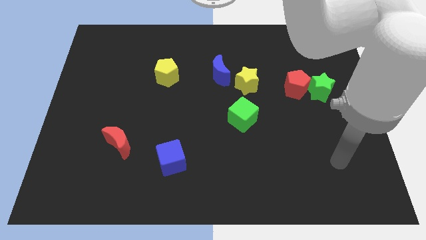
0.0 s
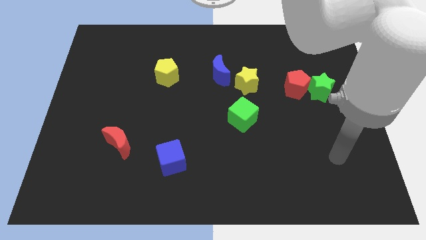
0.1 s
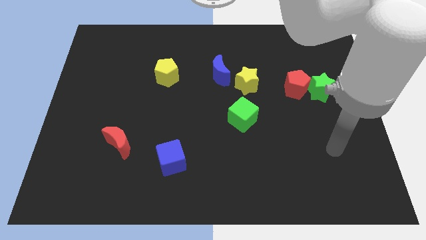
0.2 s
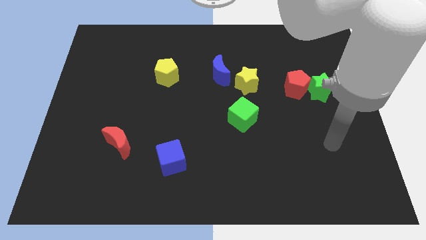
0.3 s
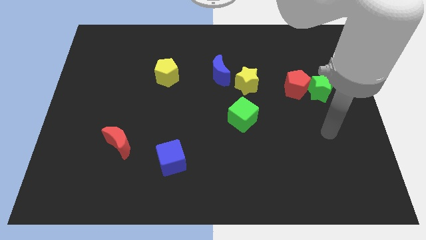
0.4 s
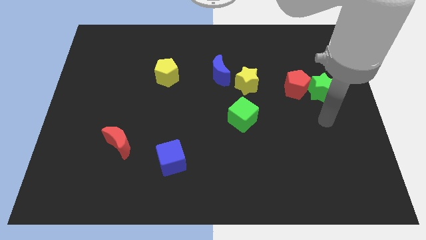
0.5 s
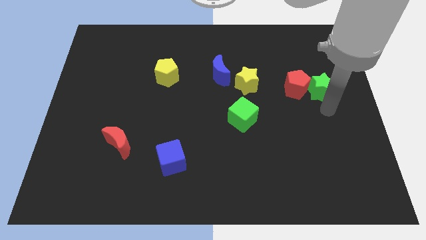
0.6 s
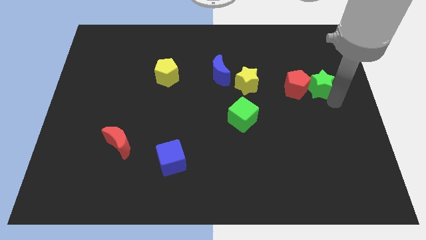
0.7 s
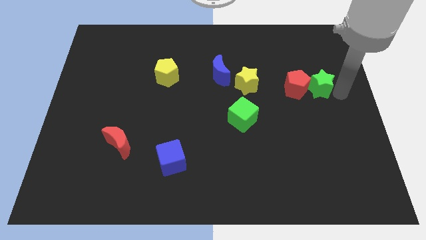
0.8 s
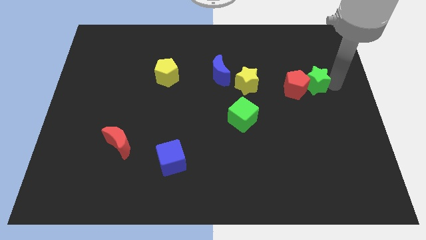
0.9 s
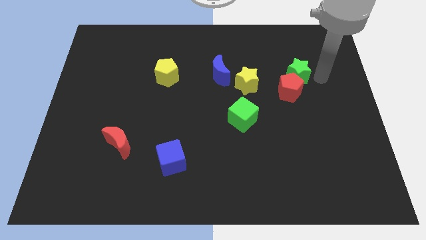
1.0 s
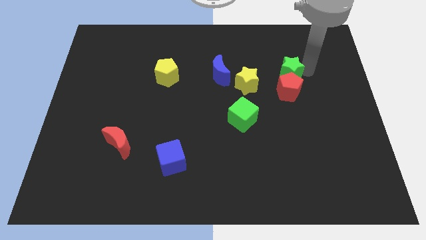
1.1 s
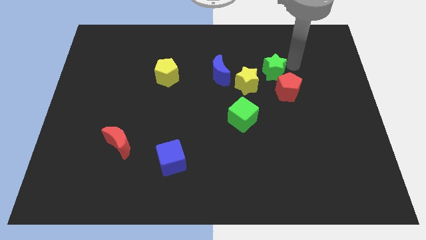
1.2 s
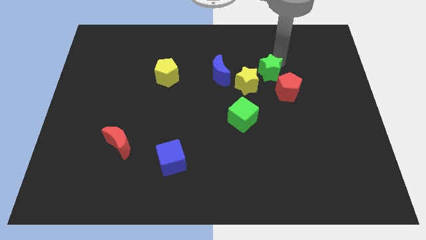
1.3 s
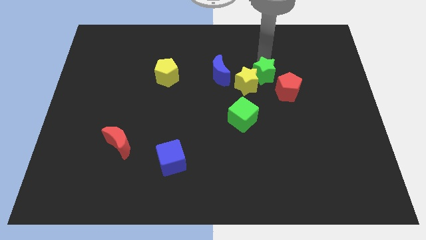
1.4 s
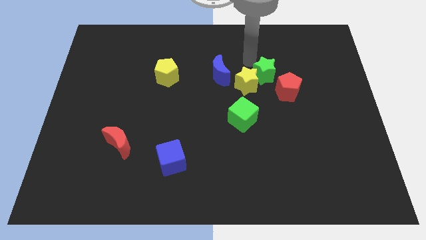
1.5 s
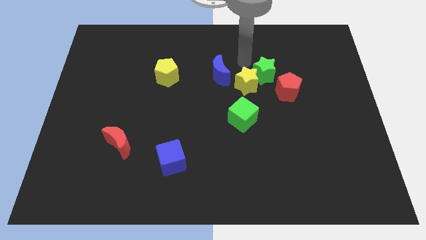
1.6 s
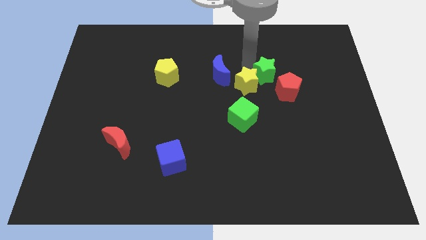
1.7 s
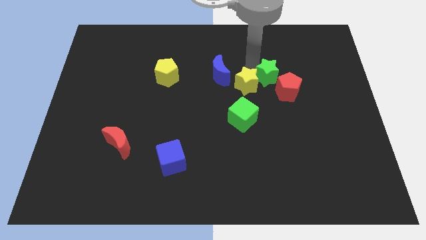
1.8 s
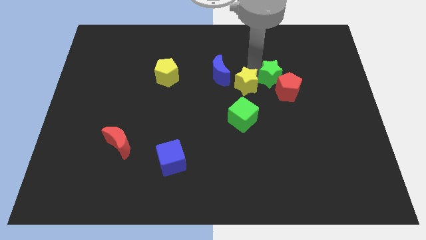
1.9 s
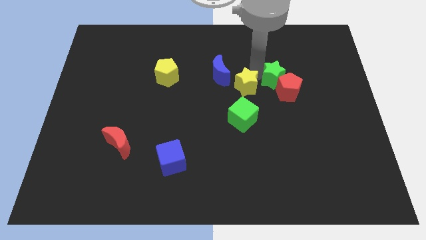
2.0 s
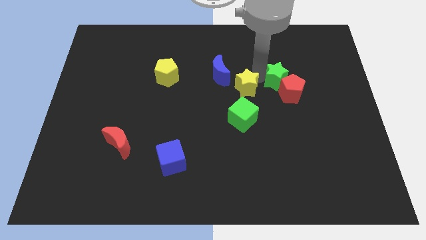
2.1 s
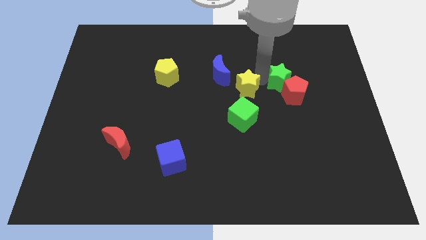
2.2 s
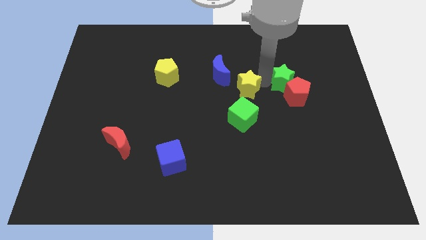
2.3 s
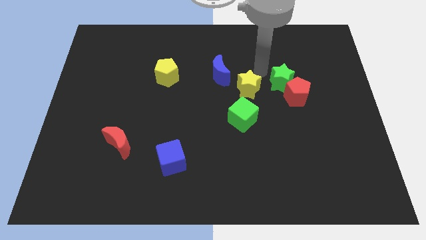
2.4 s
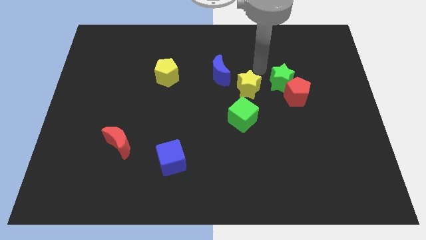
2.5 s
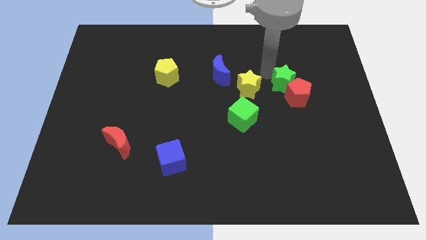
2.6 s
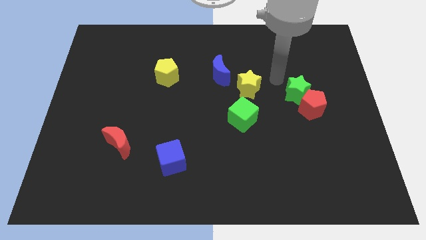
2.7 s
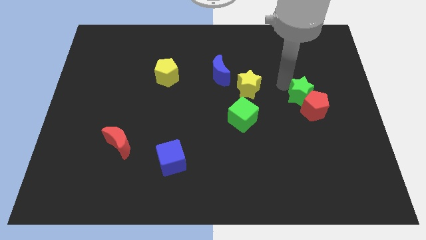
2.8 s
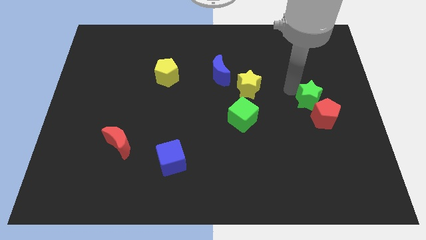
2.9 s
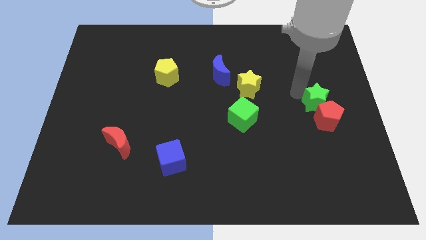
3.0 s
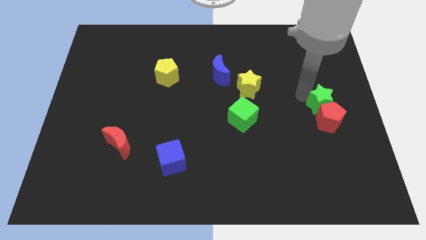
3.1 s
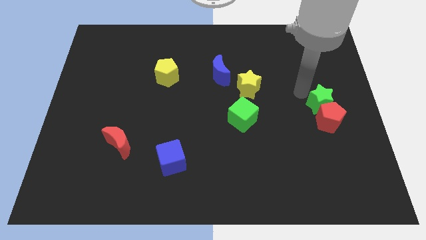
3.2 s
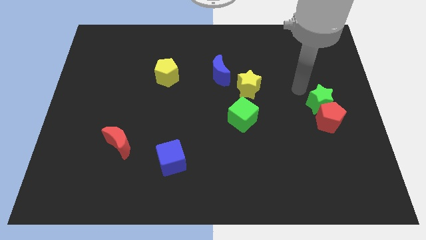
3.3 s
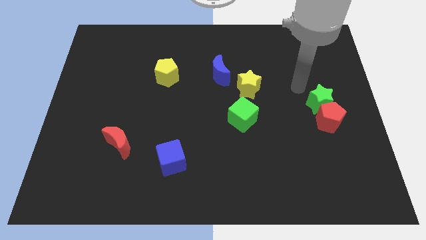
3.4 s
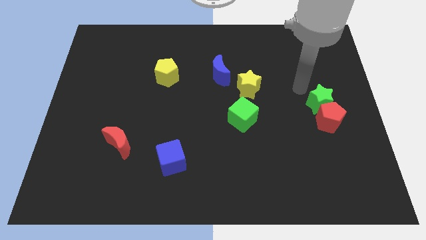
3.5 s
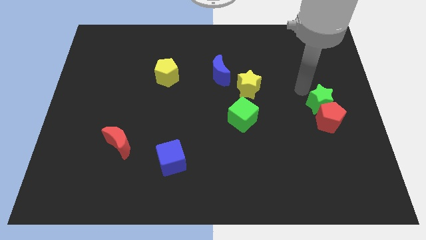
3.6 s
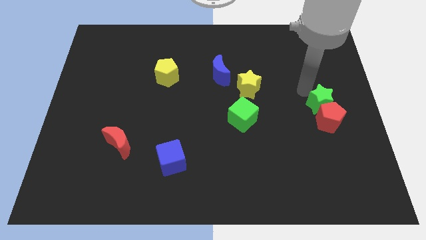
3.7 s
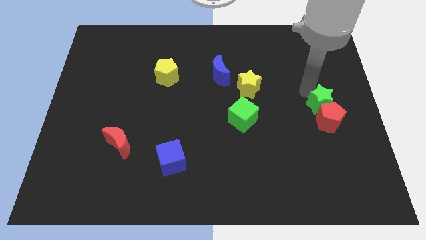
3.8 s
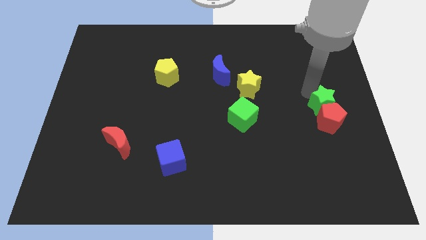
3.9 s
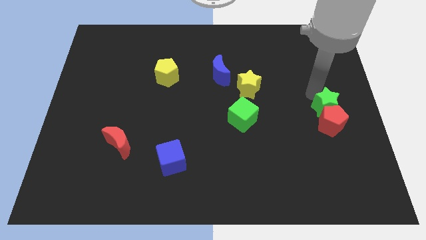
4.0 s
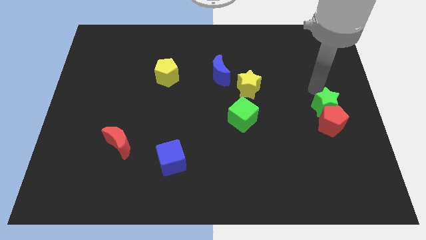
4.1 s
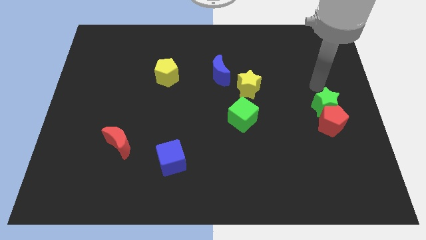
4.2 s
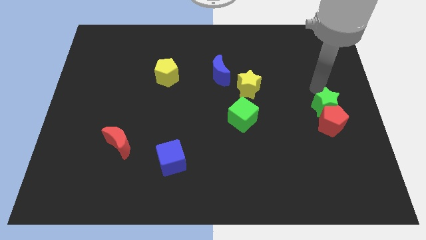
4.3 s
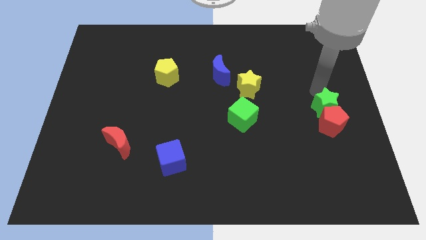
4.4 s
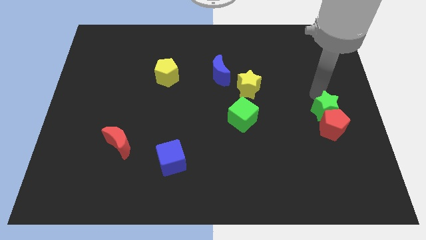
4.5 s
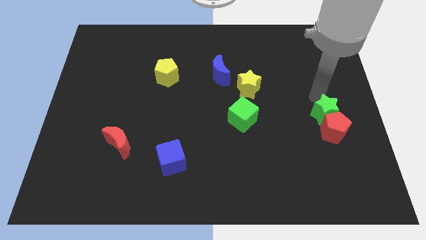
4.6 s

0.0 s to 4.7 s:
move the green star downwards slightly

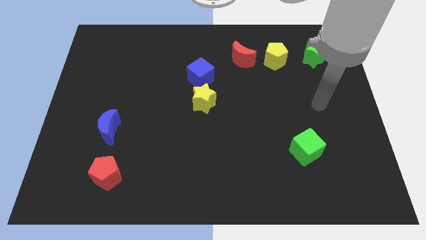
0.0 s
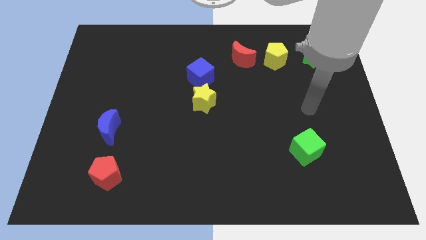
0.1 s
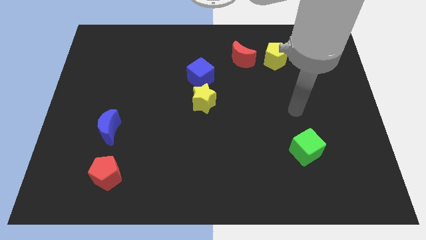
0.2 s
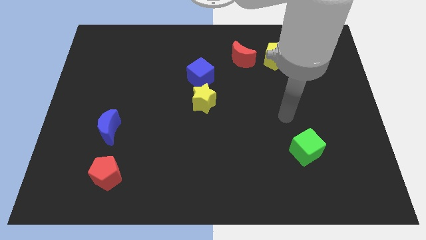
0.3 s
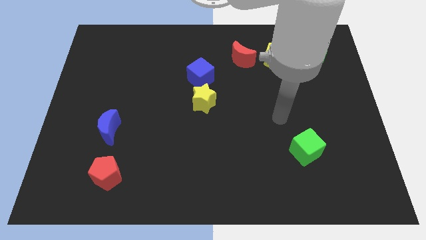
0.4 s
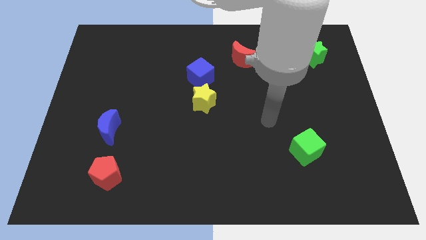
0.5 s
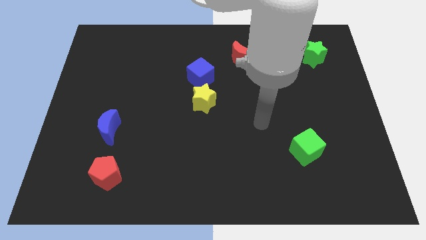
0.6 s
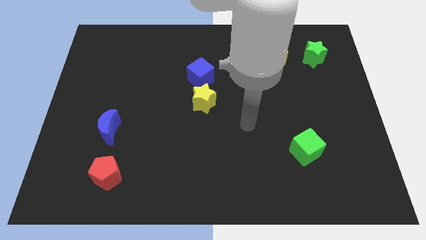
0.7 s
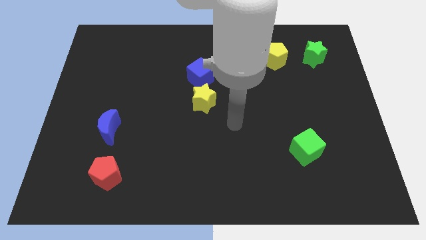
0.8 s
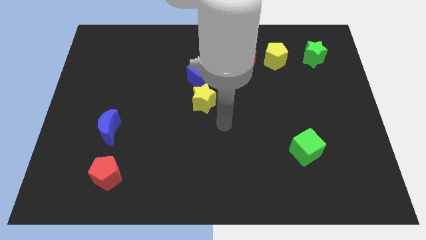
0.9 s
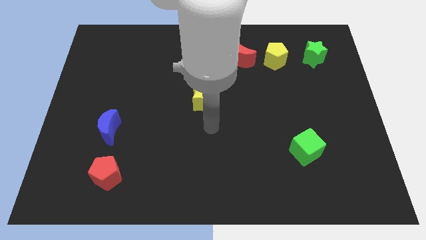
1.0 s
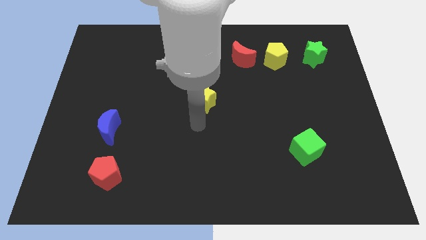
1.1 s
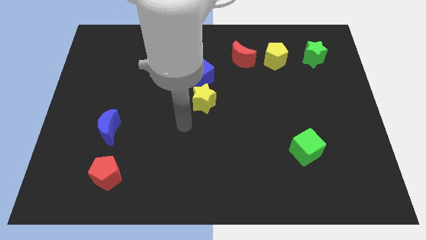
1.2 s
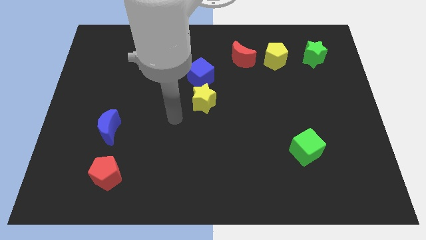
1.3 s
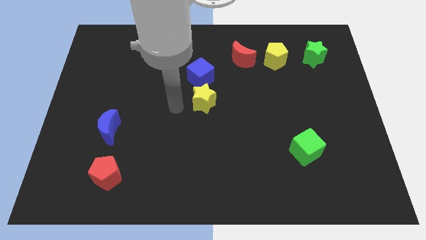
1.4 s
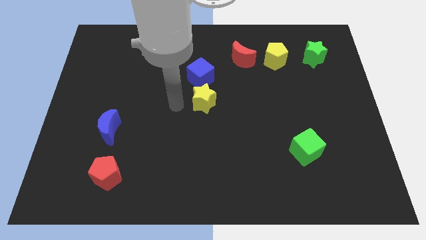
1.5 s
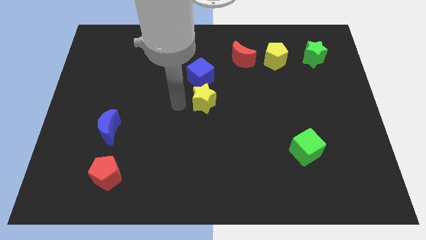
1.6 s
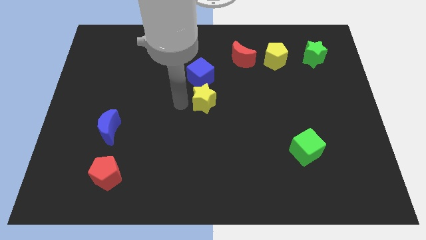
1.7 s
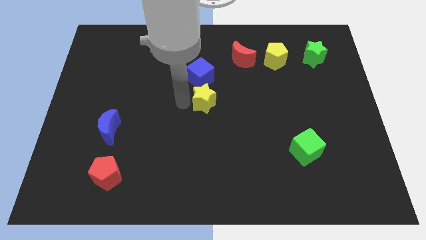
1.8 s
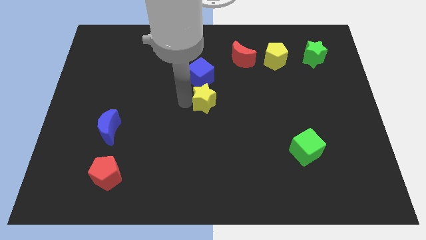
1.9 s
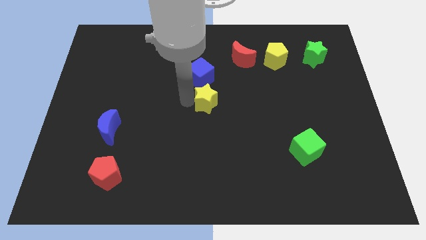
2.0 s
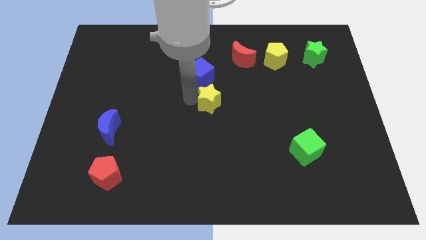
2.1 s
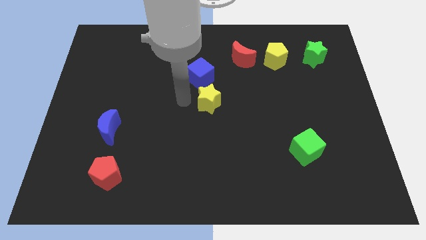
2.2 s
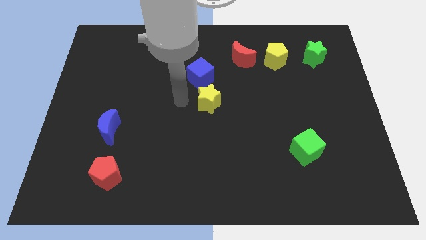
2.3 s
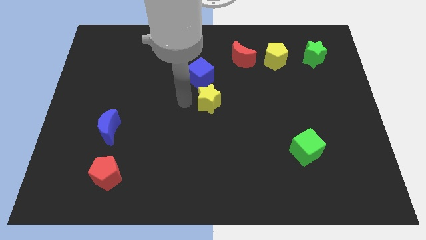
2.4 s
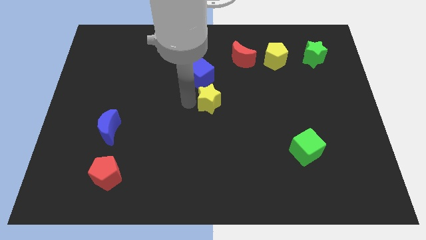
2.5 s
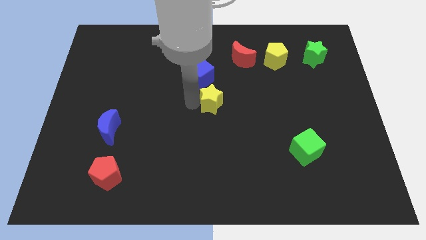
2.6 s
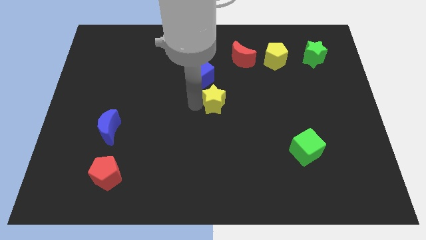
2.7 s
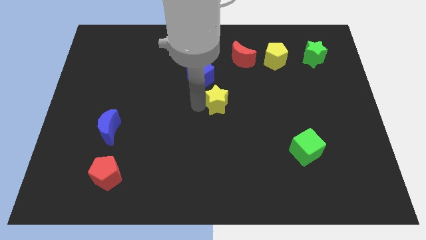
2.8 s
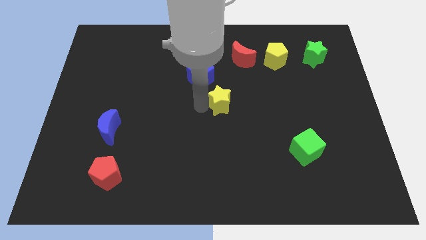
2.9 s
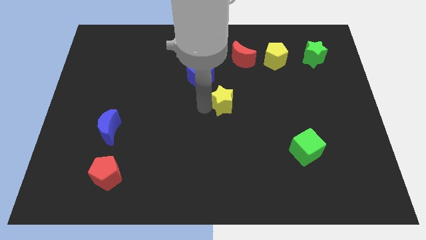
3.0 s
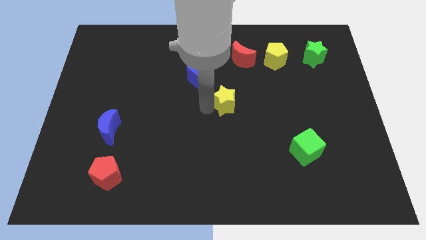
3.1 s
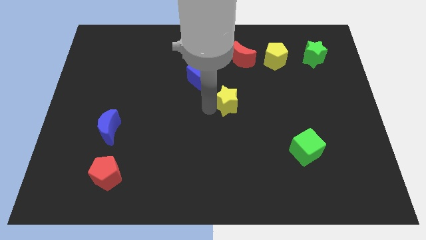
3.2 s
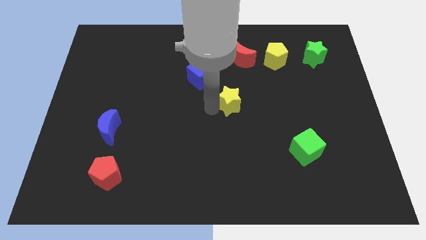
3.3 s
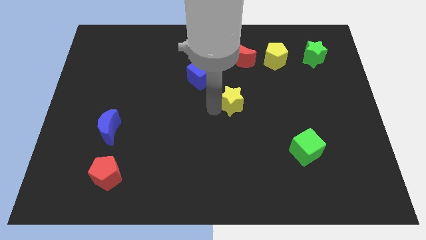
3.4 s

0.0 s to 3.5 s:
slightly slide the yellow star to the right

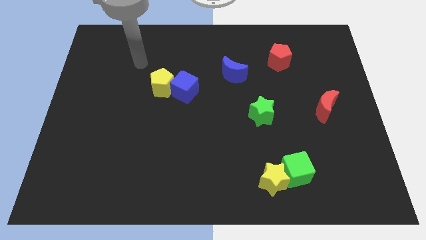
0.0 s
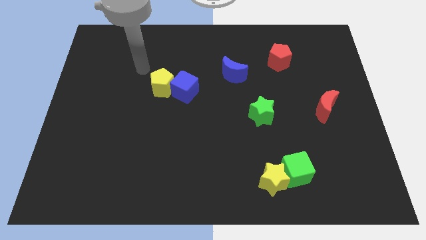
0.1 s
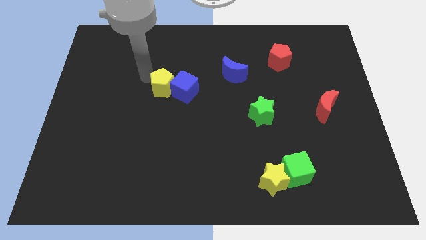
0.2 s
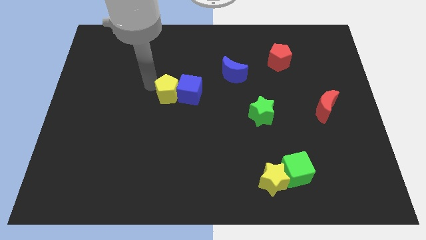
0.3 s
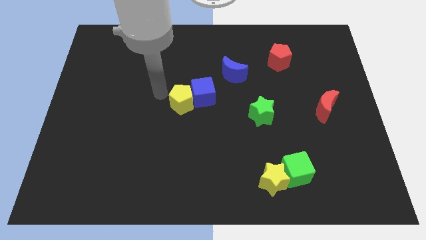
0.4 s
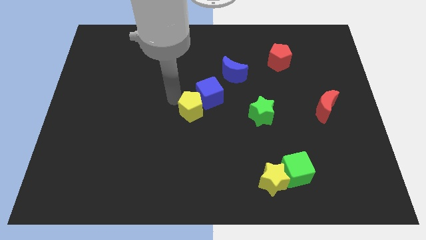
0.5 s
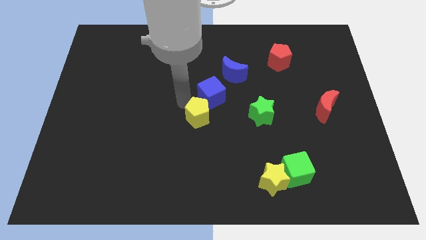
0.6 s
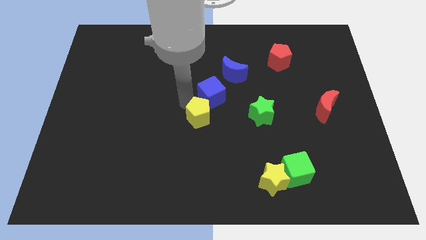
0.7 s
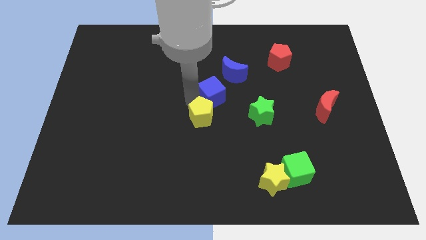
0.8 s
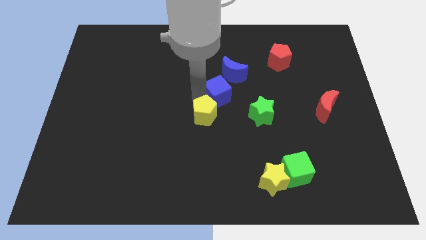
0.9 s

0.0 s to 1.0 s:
move the blue cube to the right slightly
